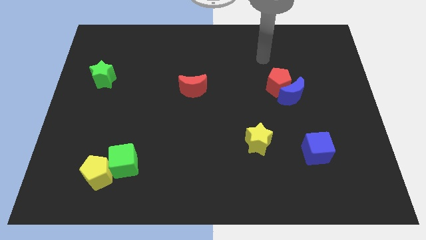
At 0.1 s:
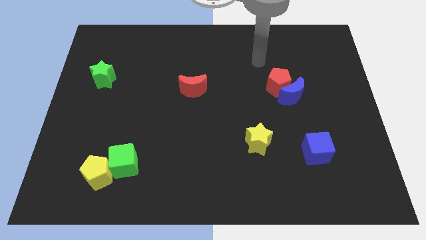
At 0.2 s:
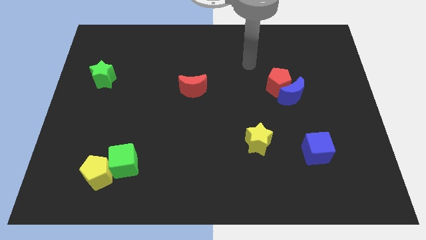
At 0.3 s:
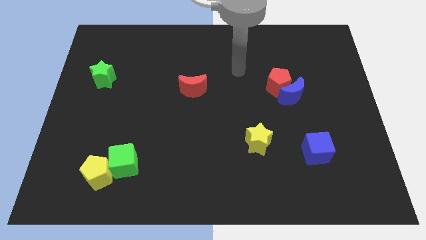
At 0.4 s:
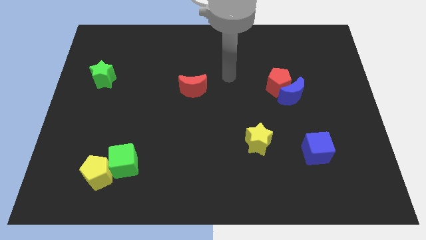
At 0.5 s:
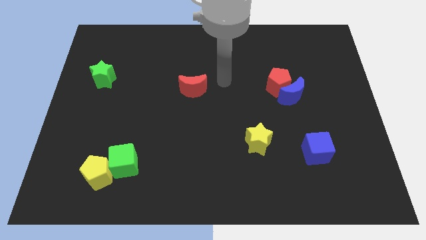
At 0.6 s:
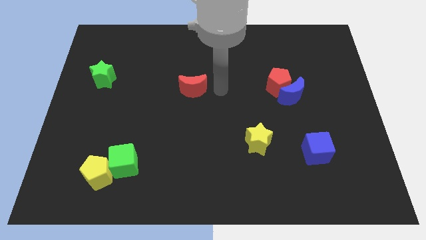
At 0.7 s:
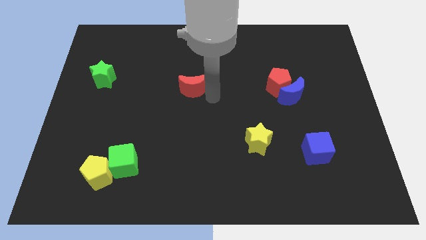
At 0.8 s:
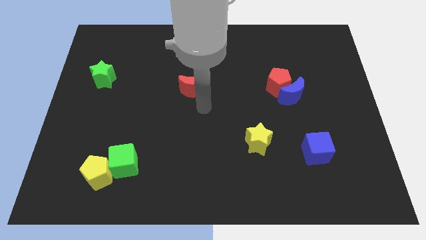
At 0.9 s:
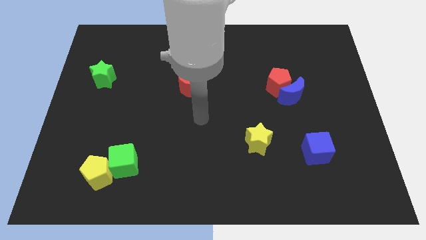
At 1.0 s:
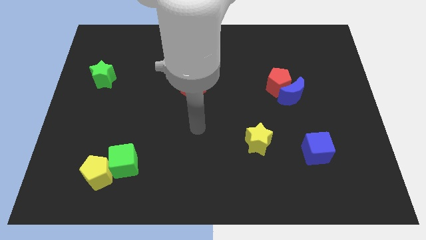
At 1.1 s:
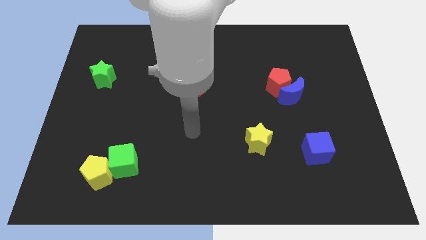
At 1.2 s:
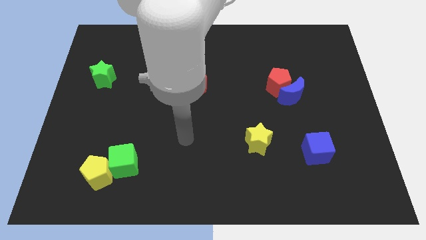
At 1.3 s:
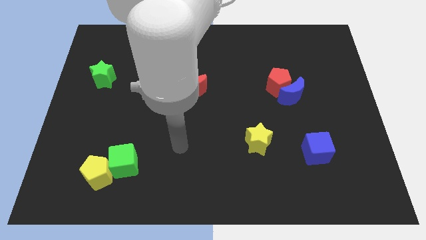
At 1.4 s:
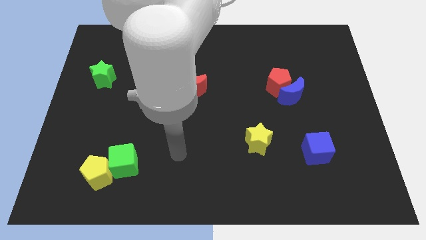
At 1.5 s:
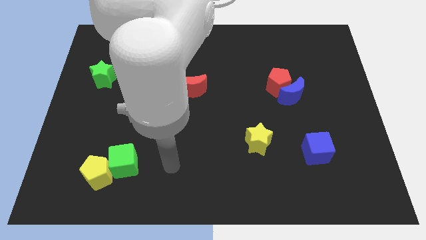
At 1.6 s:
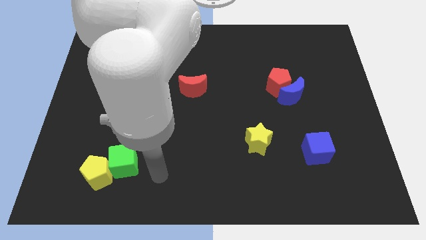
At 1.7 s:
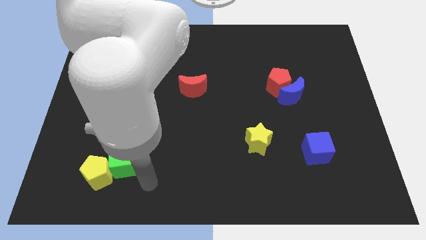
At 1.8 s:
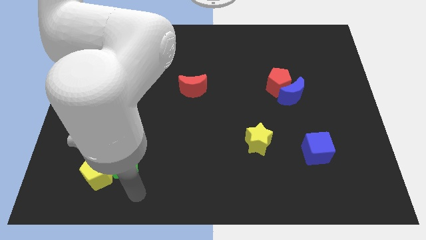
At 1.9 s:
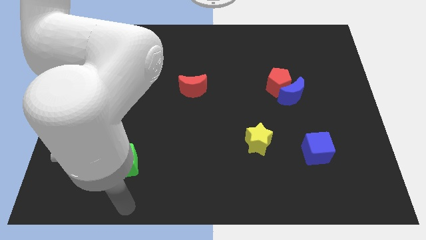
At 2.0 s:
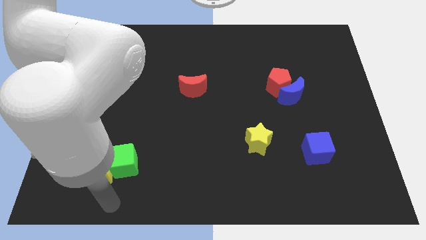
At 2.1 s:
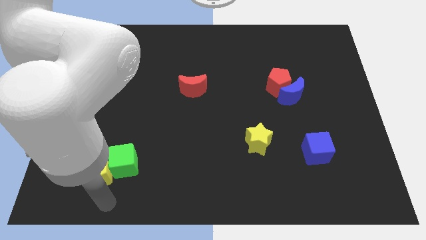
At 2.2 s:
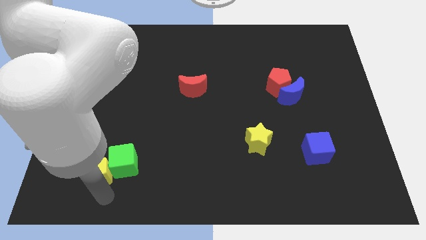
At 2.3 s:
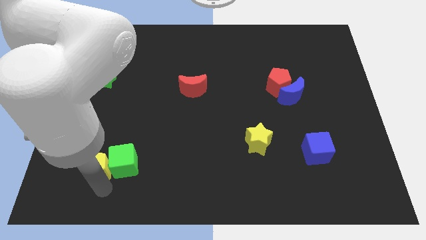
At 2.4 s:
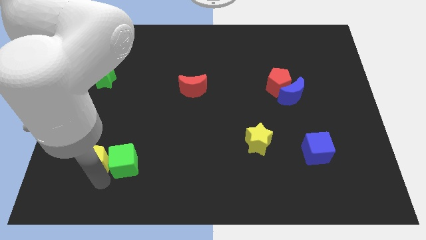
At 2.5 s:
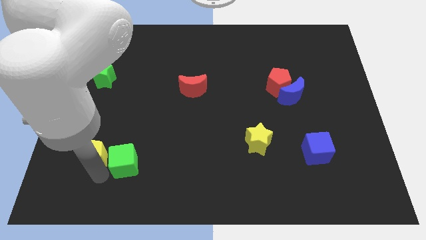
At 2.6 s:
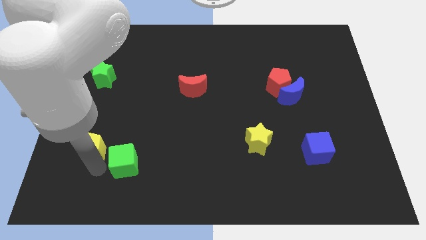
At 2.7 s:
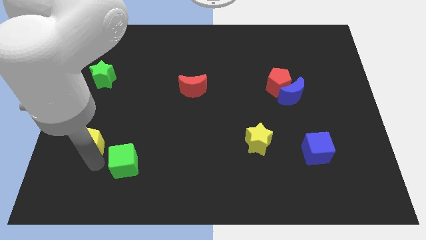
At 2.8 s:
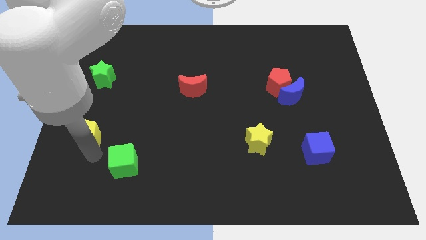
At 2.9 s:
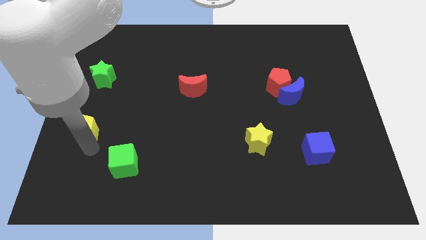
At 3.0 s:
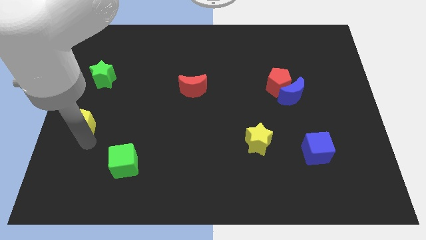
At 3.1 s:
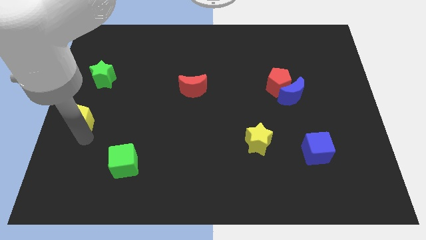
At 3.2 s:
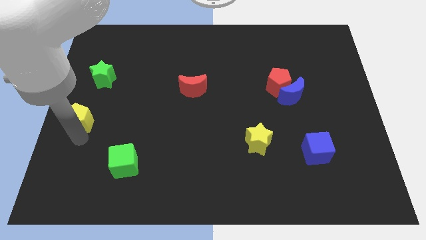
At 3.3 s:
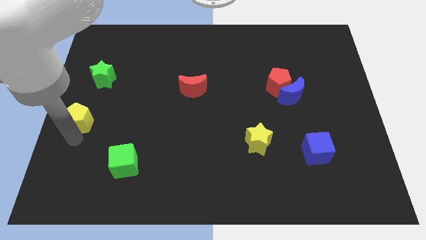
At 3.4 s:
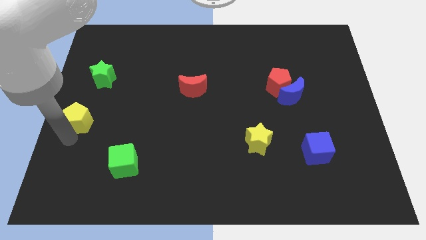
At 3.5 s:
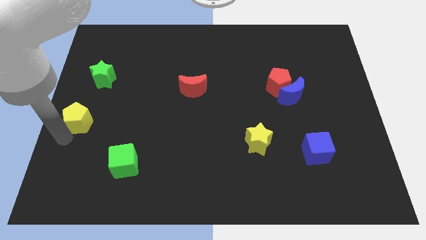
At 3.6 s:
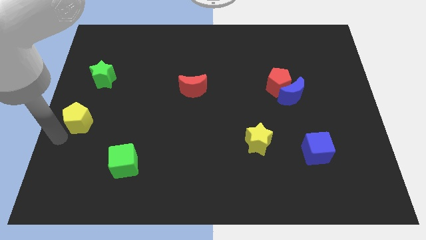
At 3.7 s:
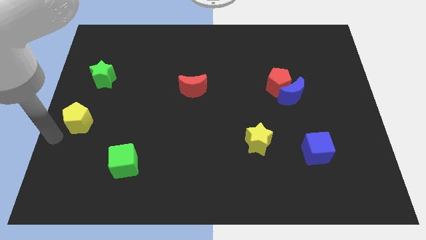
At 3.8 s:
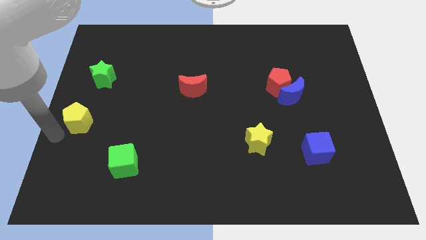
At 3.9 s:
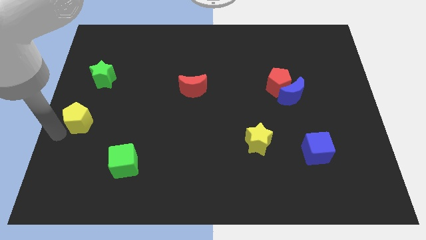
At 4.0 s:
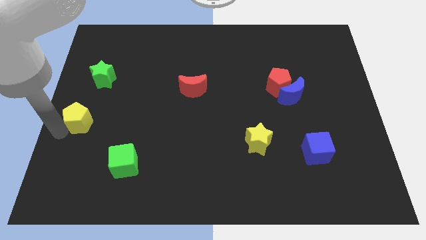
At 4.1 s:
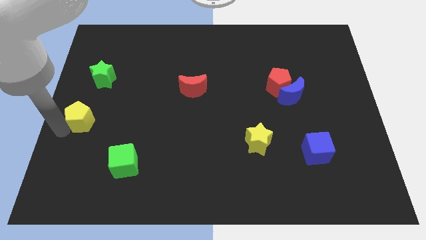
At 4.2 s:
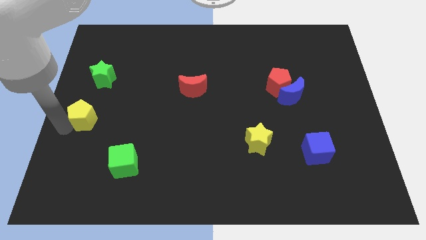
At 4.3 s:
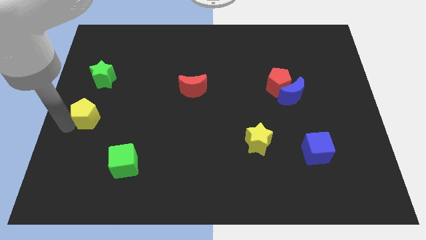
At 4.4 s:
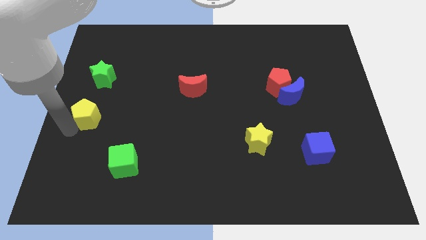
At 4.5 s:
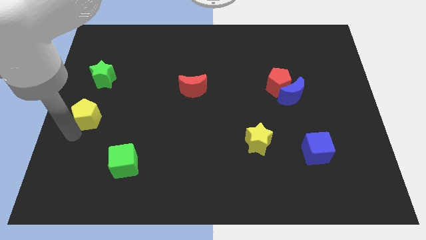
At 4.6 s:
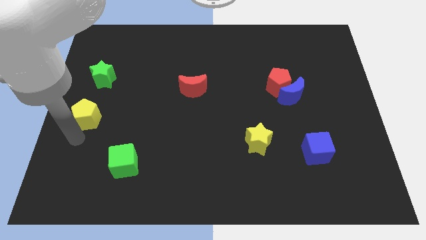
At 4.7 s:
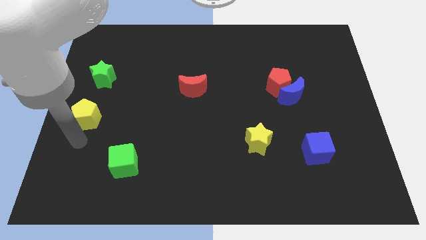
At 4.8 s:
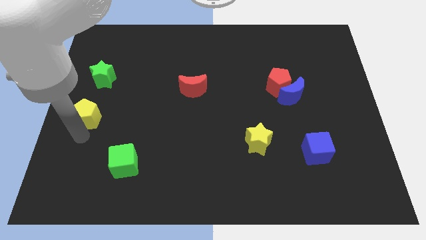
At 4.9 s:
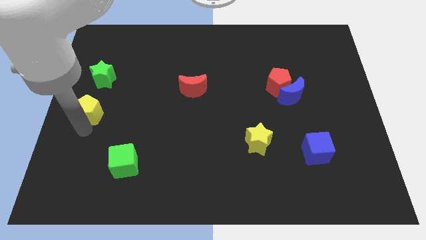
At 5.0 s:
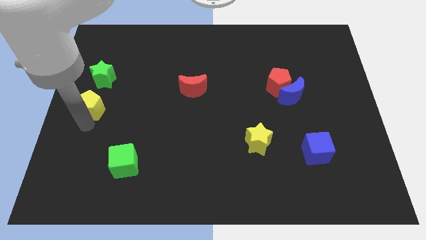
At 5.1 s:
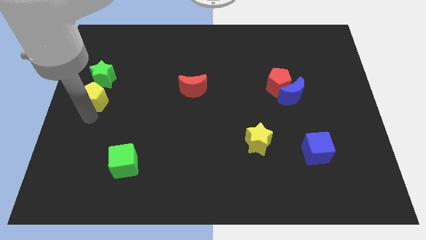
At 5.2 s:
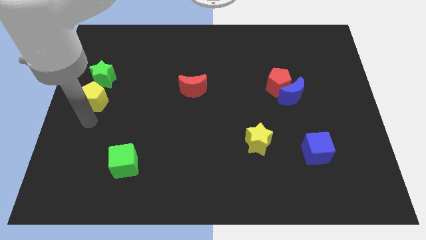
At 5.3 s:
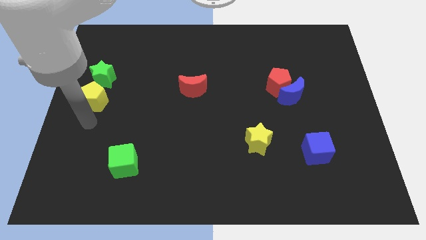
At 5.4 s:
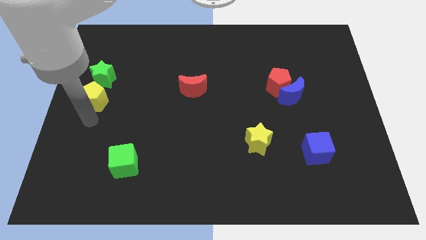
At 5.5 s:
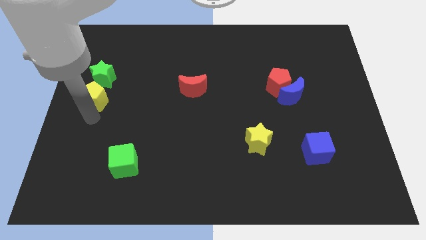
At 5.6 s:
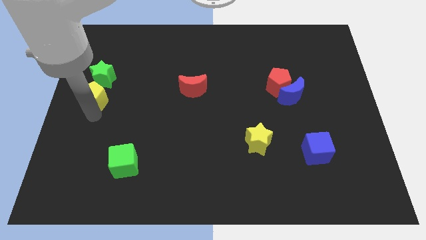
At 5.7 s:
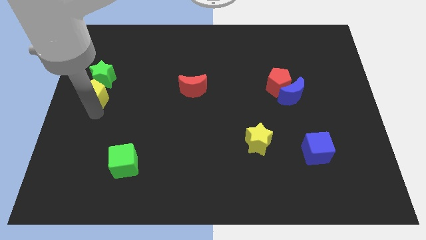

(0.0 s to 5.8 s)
put the yellow pentagon towards the green star

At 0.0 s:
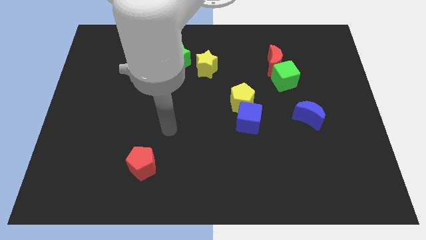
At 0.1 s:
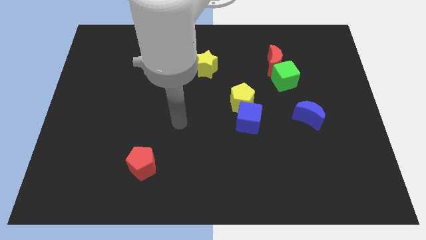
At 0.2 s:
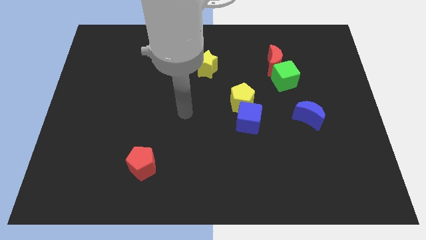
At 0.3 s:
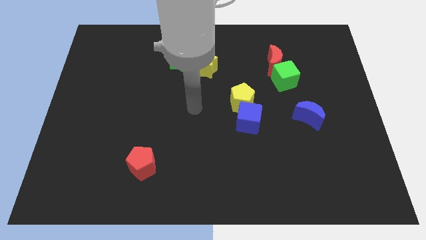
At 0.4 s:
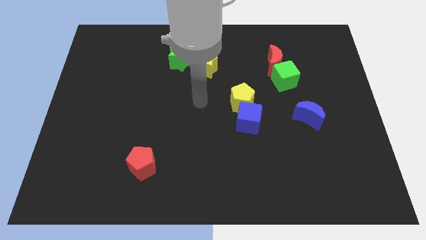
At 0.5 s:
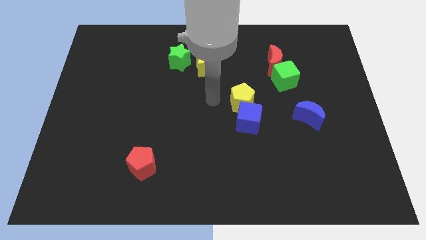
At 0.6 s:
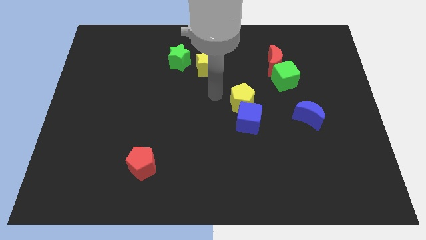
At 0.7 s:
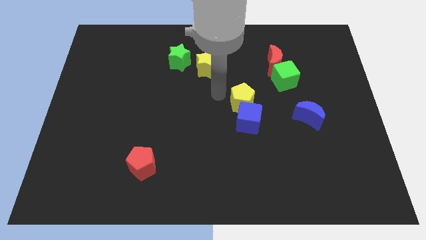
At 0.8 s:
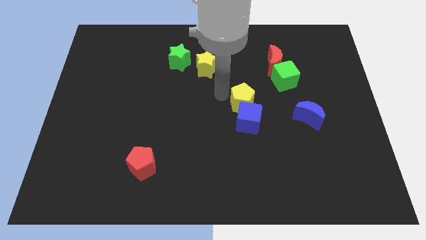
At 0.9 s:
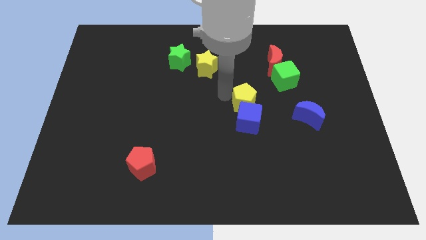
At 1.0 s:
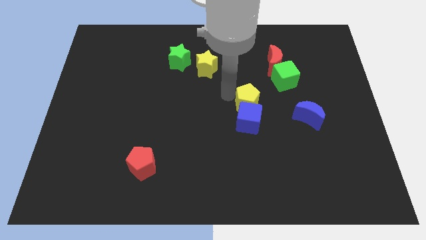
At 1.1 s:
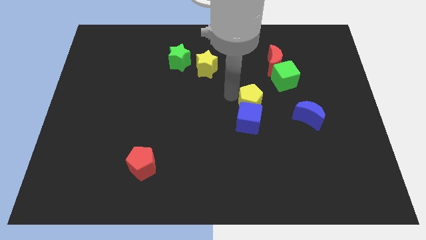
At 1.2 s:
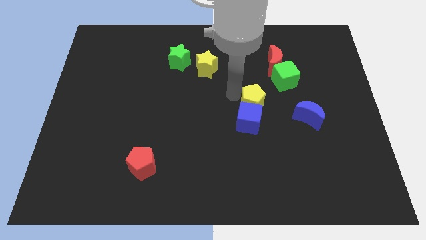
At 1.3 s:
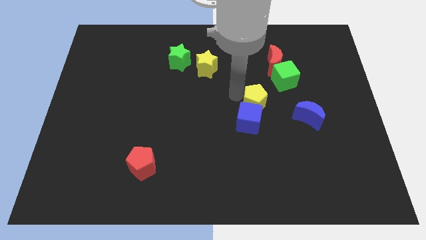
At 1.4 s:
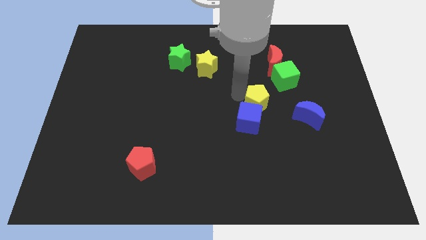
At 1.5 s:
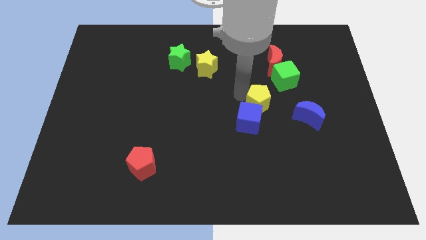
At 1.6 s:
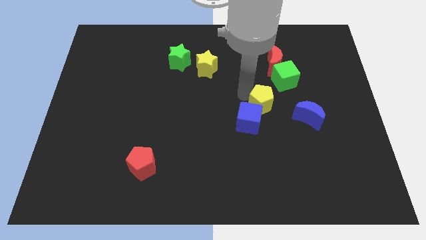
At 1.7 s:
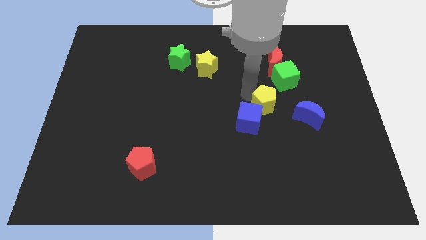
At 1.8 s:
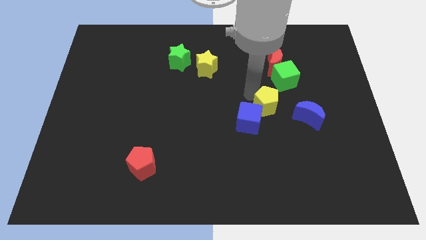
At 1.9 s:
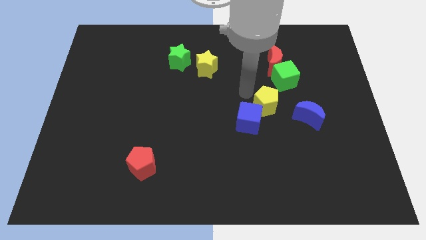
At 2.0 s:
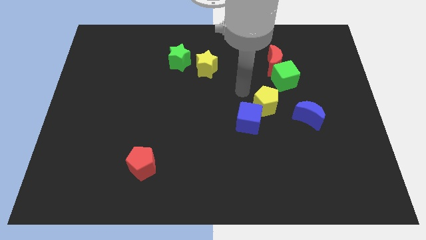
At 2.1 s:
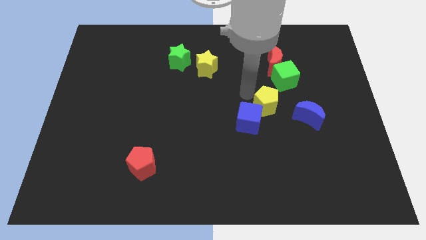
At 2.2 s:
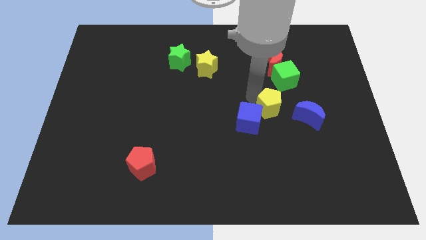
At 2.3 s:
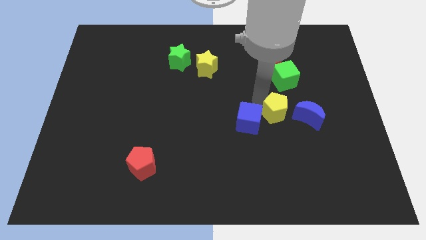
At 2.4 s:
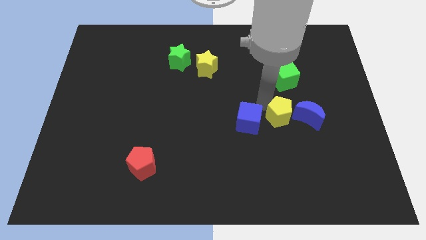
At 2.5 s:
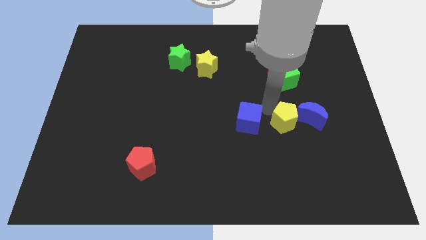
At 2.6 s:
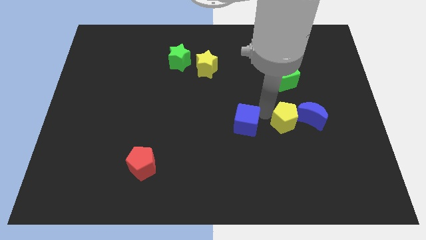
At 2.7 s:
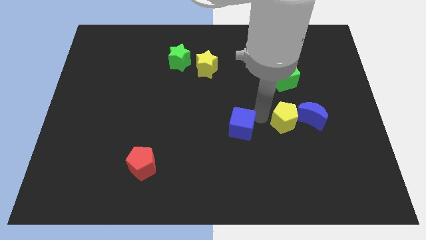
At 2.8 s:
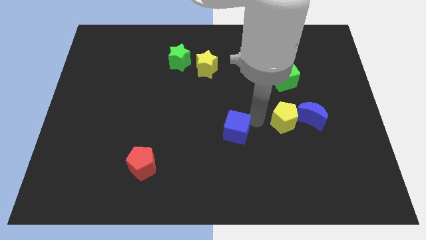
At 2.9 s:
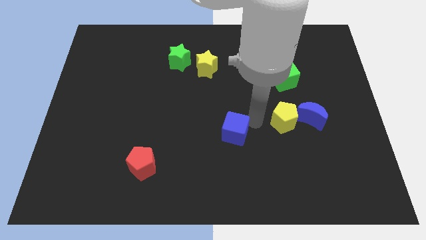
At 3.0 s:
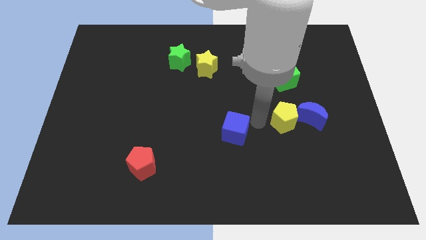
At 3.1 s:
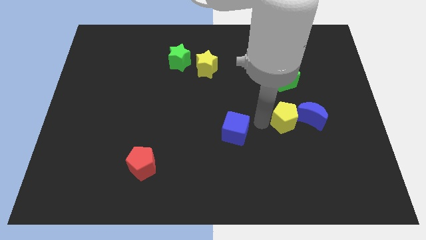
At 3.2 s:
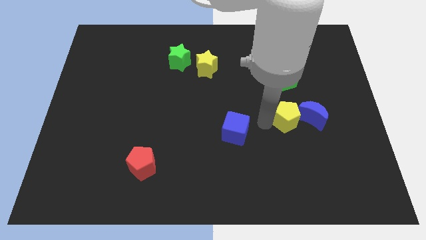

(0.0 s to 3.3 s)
put the yellow pentagon to the blue moon
